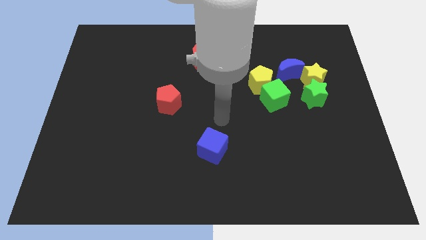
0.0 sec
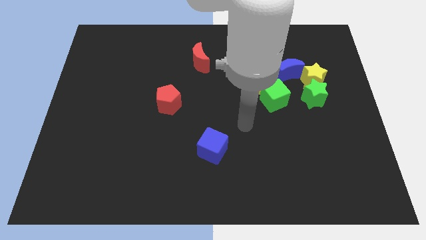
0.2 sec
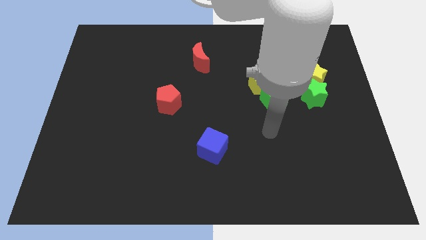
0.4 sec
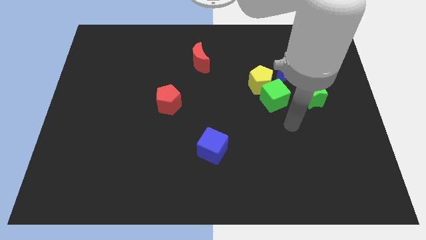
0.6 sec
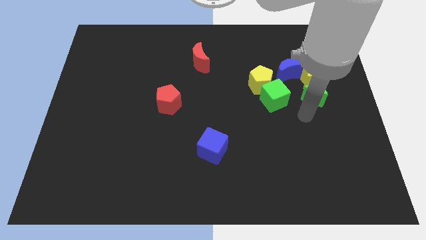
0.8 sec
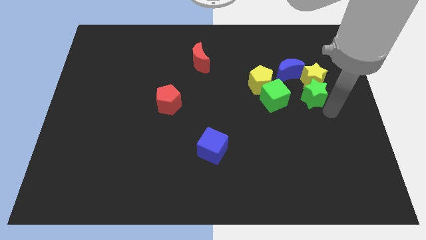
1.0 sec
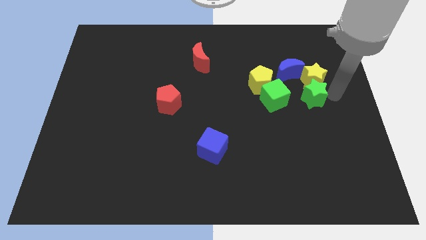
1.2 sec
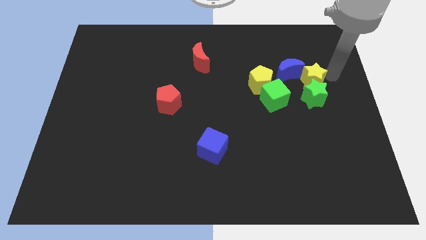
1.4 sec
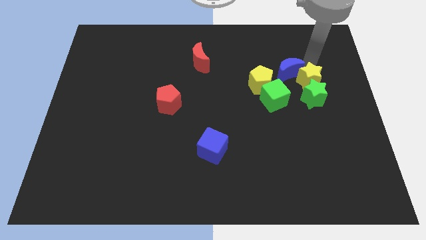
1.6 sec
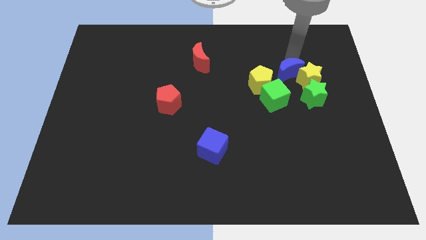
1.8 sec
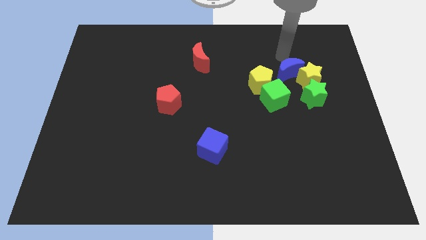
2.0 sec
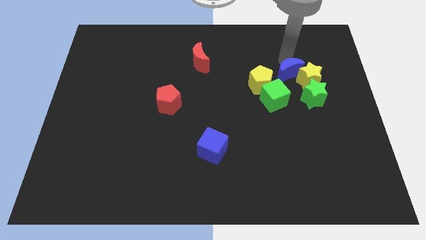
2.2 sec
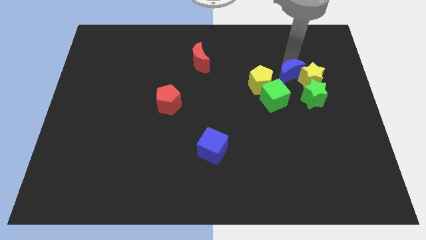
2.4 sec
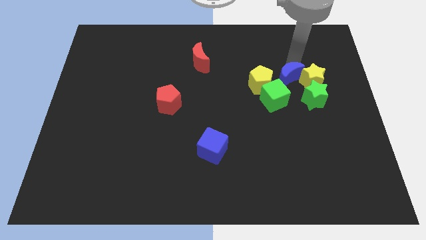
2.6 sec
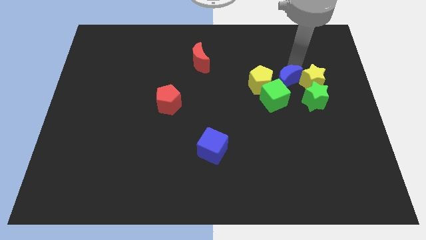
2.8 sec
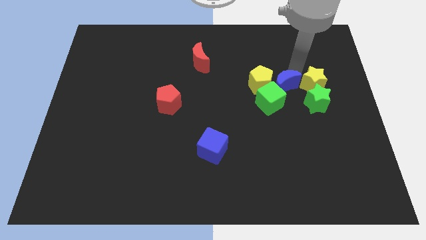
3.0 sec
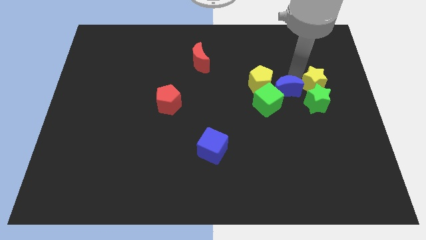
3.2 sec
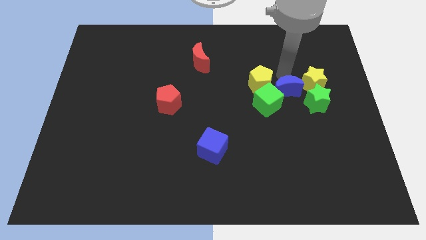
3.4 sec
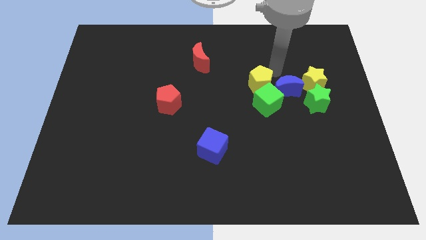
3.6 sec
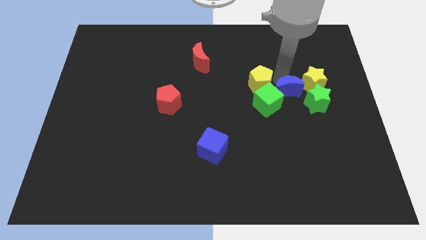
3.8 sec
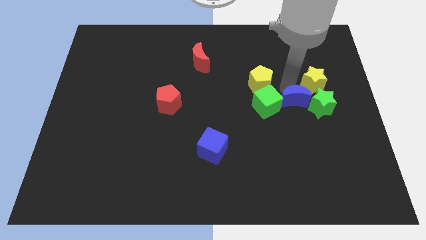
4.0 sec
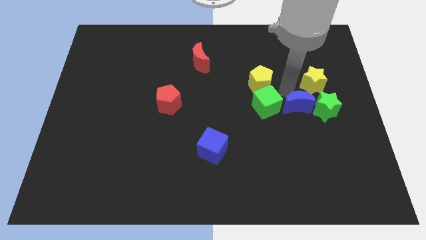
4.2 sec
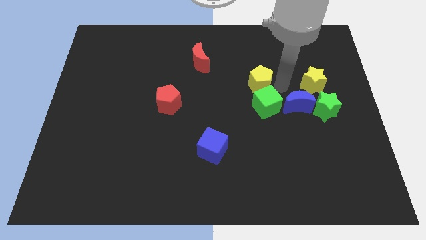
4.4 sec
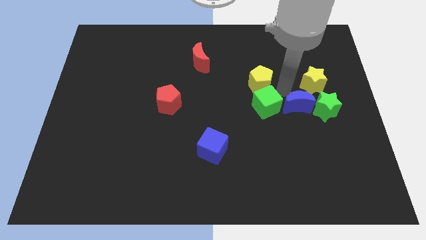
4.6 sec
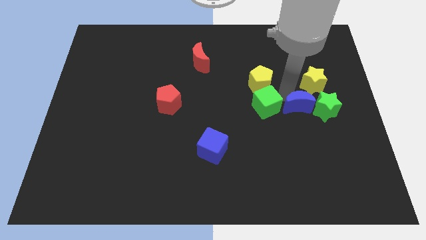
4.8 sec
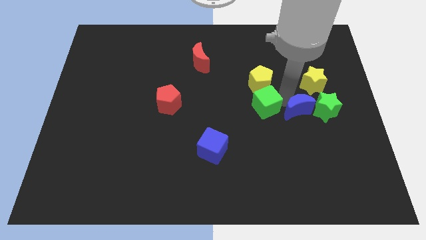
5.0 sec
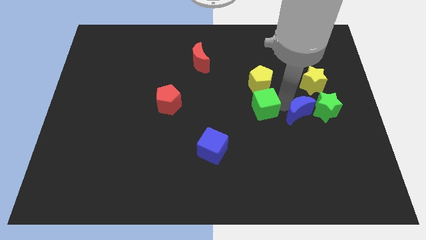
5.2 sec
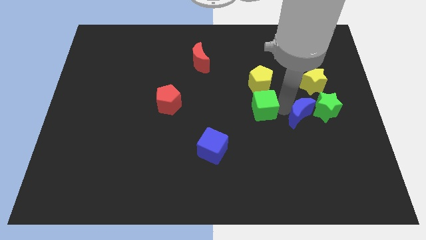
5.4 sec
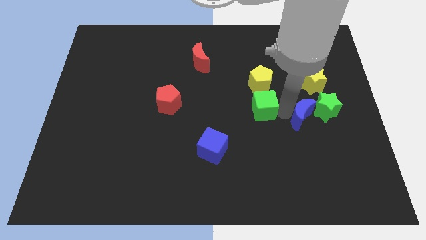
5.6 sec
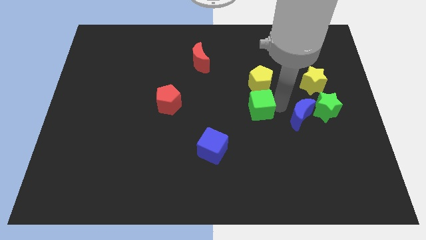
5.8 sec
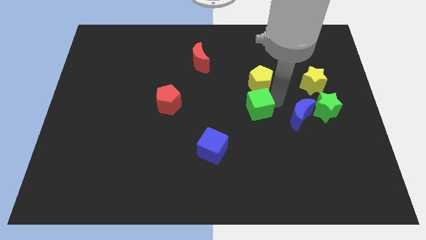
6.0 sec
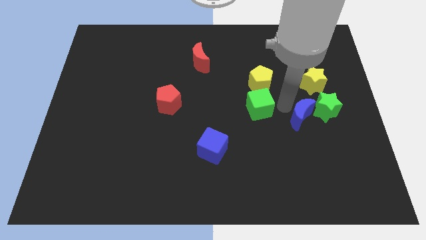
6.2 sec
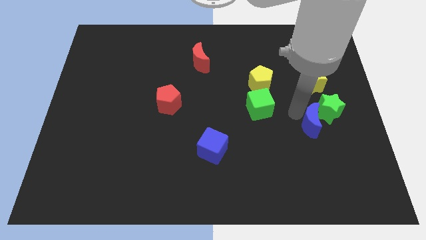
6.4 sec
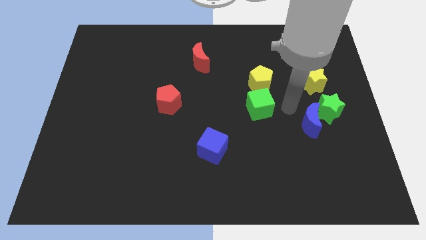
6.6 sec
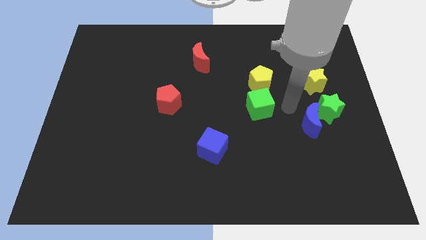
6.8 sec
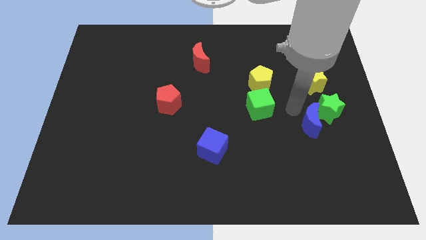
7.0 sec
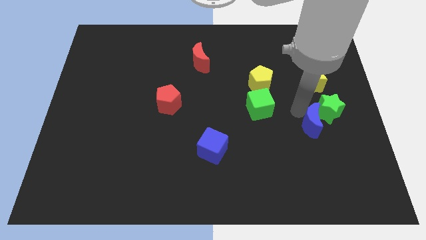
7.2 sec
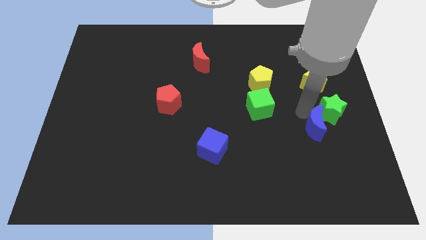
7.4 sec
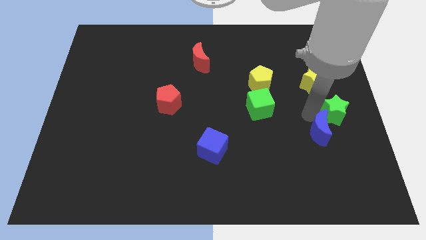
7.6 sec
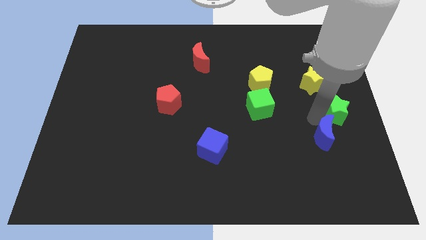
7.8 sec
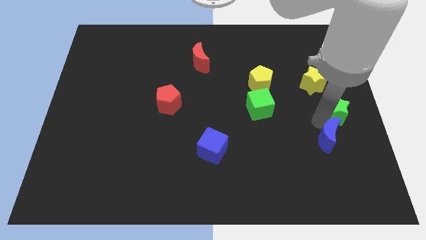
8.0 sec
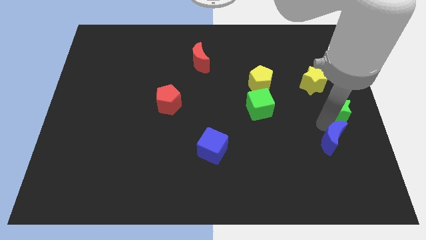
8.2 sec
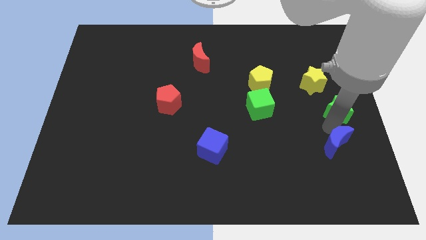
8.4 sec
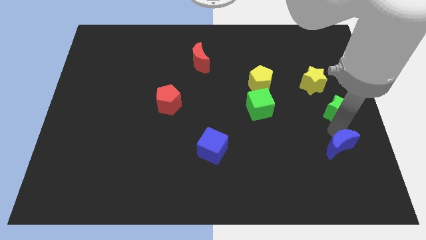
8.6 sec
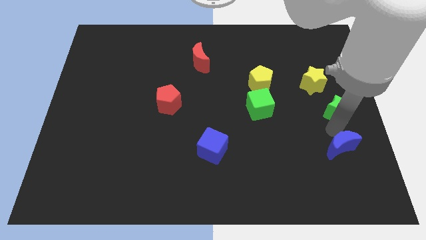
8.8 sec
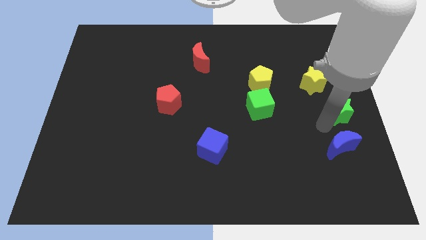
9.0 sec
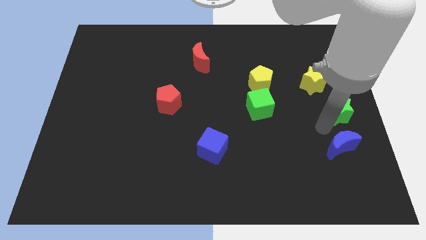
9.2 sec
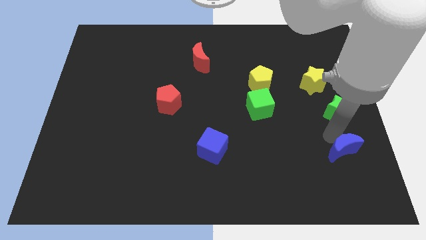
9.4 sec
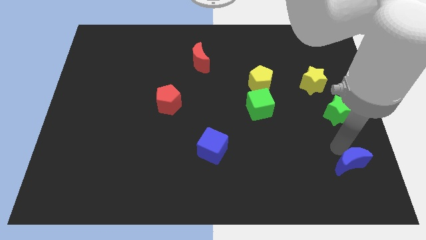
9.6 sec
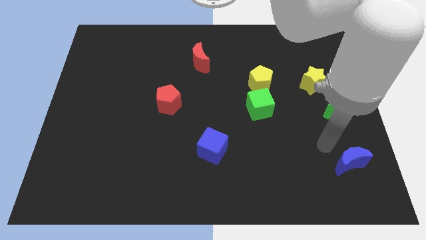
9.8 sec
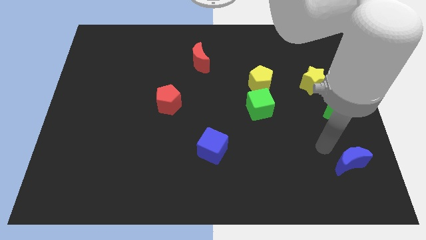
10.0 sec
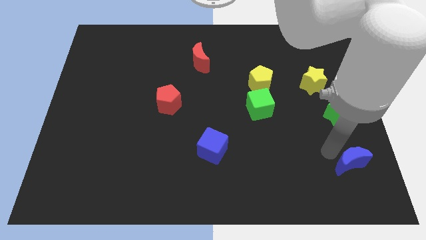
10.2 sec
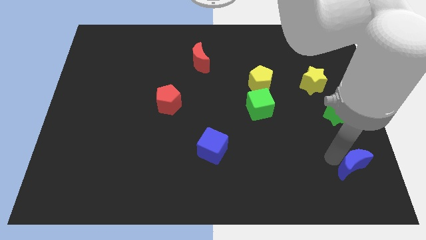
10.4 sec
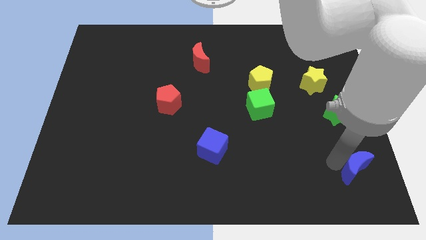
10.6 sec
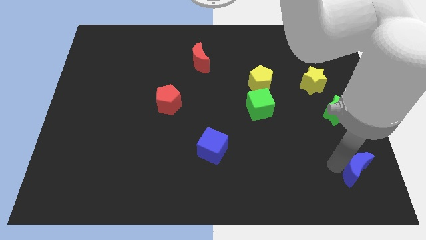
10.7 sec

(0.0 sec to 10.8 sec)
slide the blue moon to the bottom right

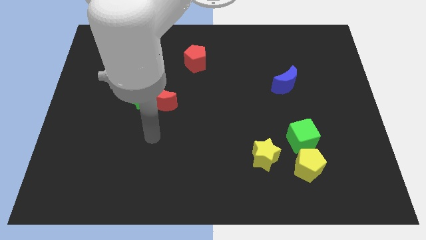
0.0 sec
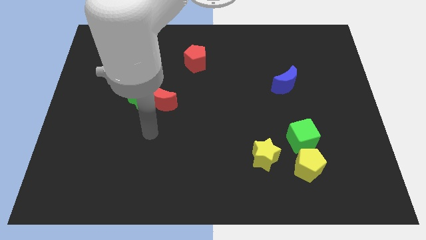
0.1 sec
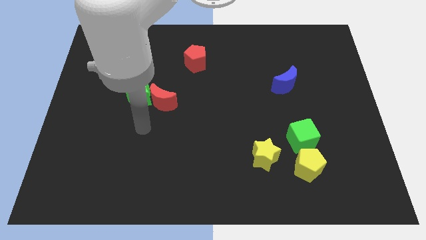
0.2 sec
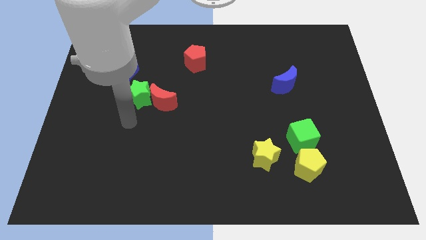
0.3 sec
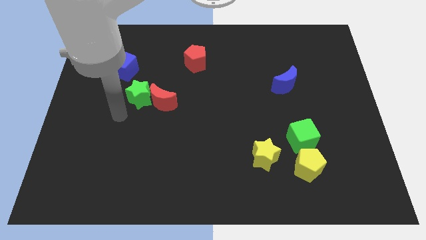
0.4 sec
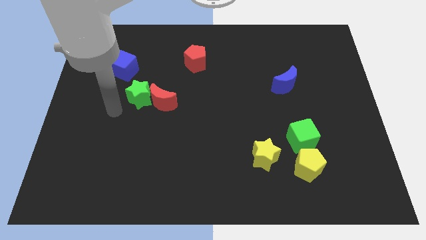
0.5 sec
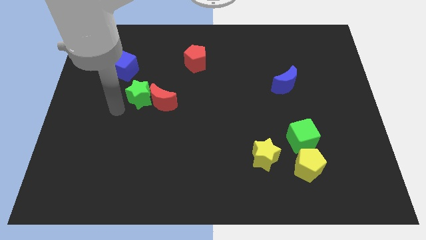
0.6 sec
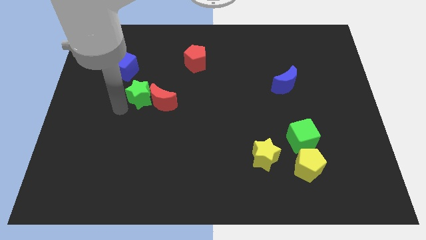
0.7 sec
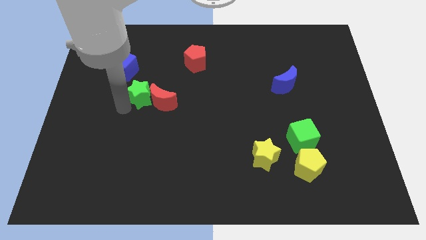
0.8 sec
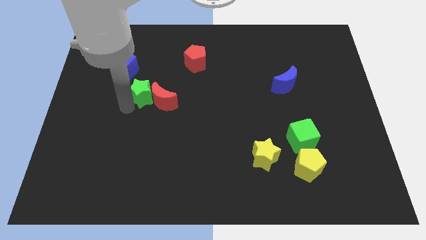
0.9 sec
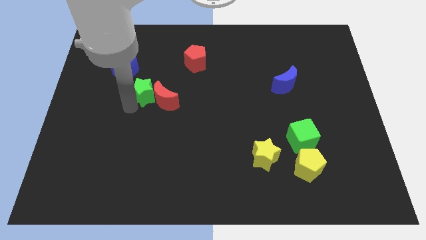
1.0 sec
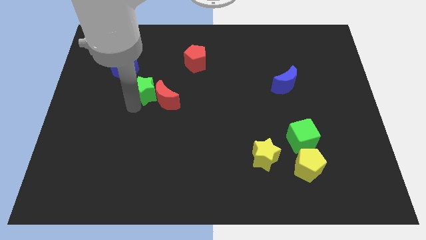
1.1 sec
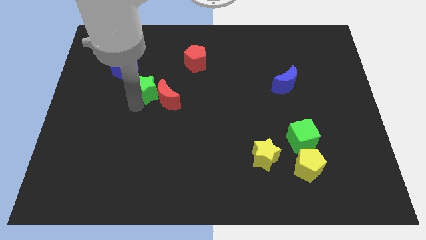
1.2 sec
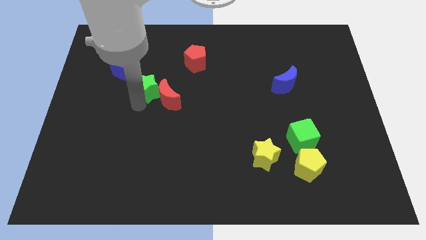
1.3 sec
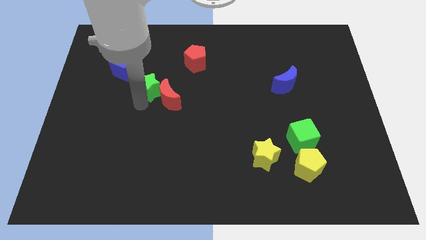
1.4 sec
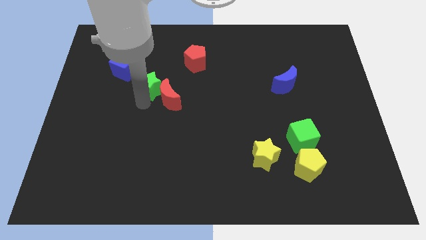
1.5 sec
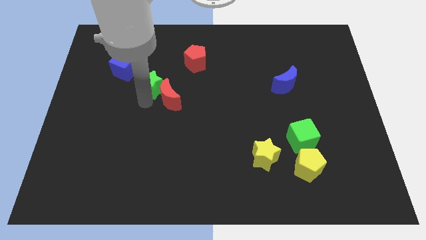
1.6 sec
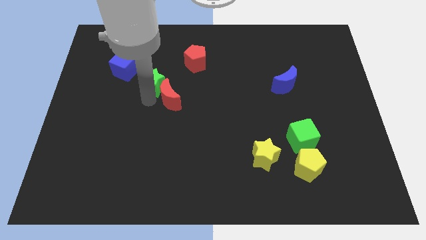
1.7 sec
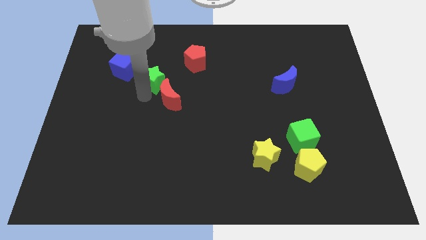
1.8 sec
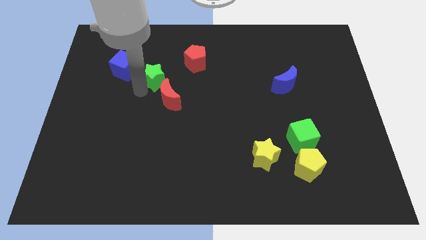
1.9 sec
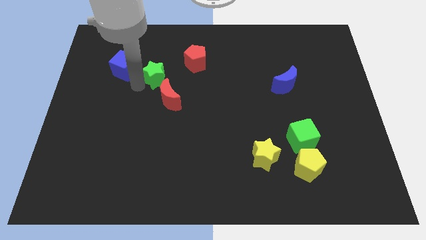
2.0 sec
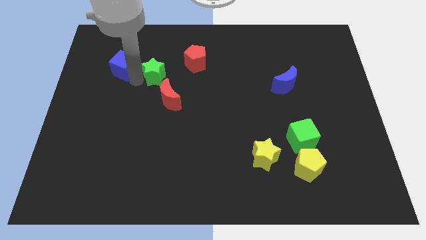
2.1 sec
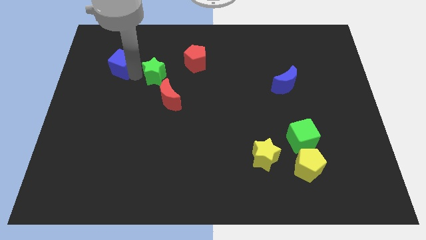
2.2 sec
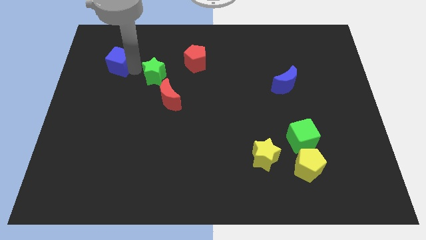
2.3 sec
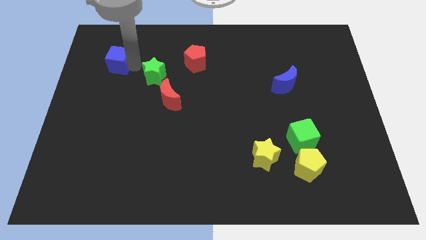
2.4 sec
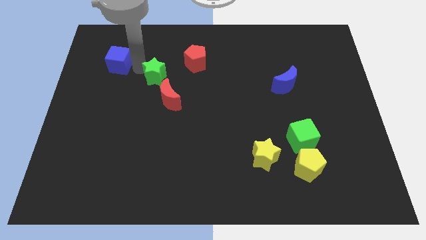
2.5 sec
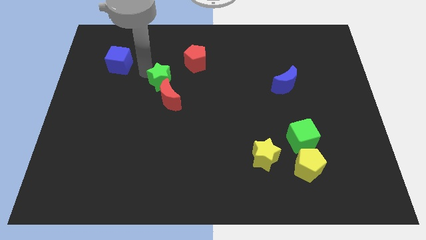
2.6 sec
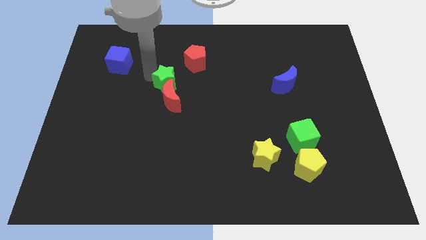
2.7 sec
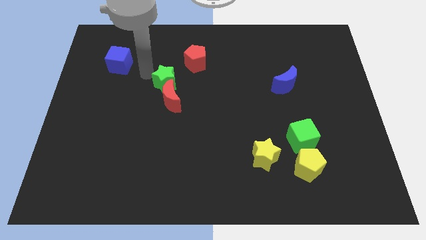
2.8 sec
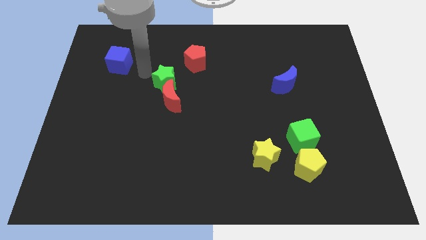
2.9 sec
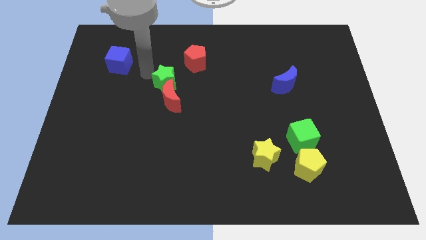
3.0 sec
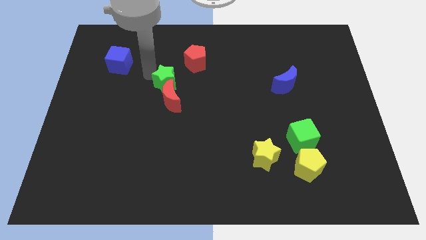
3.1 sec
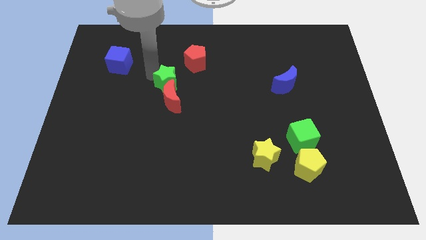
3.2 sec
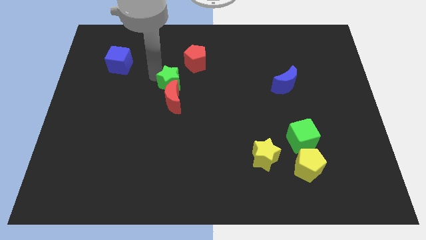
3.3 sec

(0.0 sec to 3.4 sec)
slide the green star to the middle of the board
